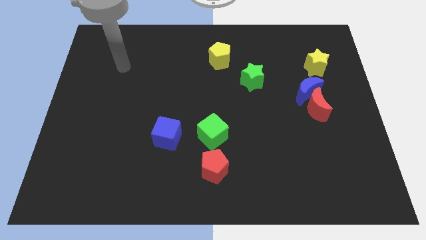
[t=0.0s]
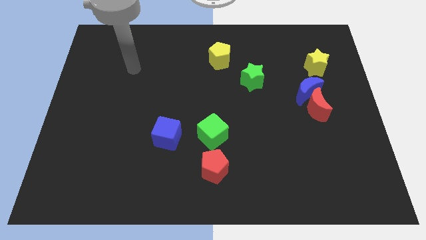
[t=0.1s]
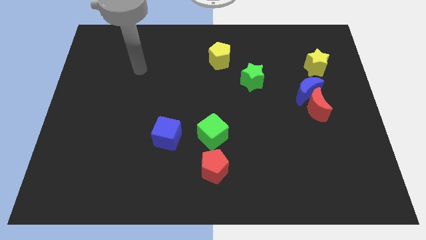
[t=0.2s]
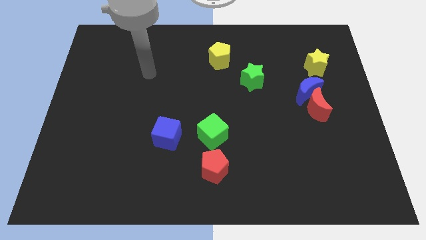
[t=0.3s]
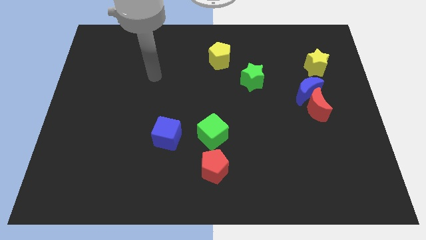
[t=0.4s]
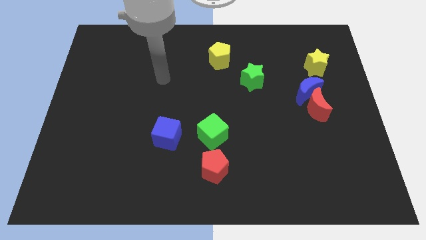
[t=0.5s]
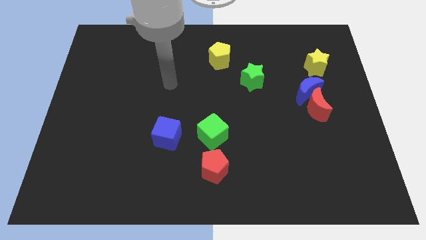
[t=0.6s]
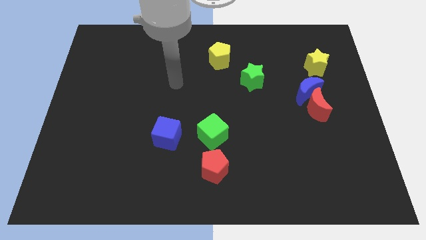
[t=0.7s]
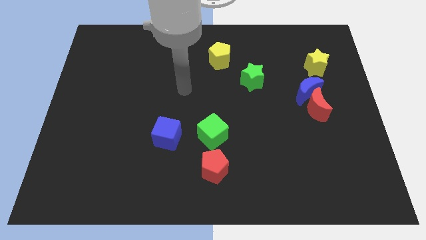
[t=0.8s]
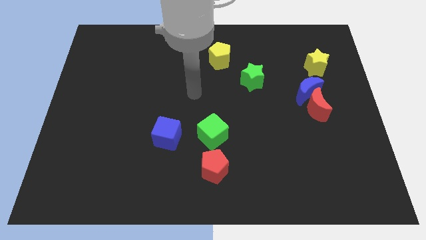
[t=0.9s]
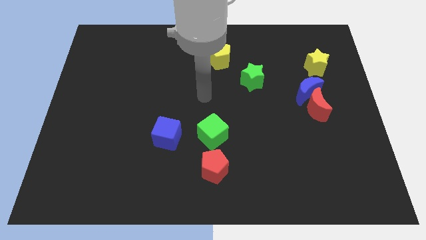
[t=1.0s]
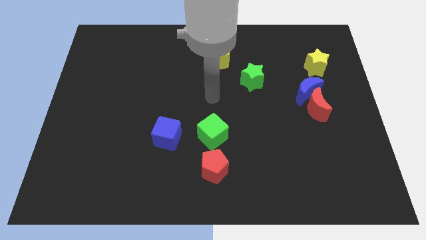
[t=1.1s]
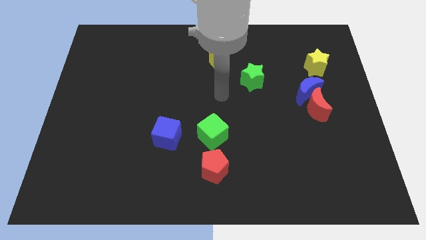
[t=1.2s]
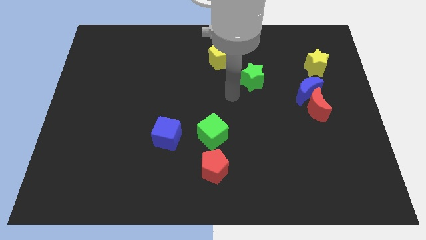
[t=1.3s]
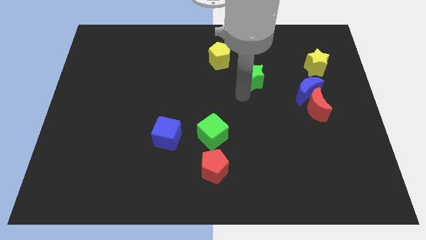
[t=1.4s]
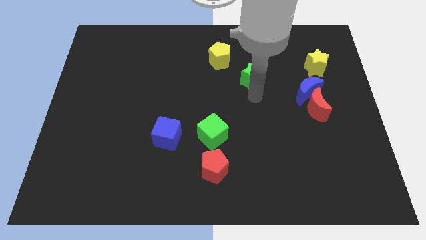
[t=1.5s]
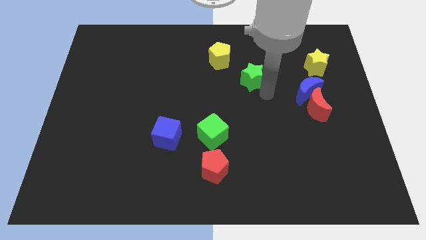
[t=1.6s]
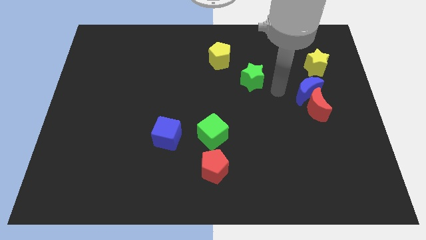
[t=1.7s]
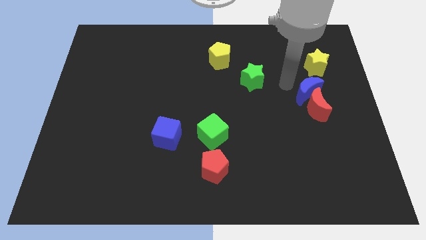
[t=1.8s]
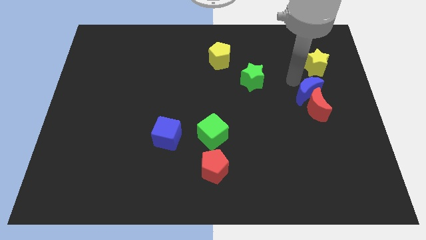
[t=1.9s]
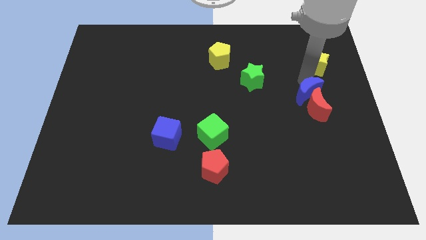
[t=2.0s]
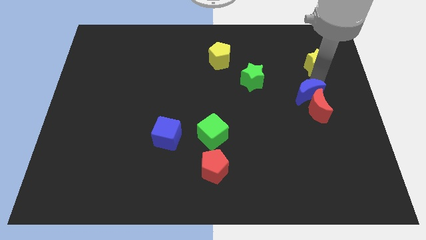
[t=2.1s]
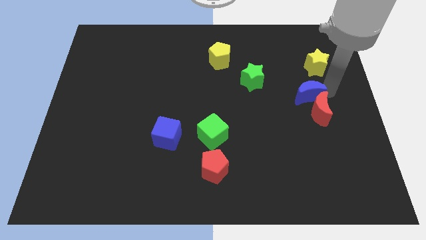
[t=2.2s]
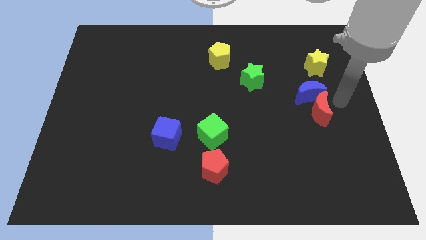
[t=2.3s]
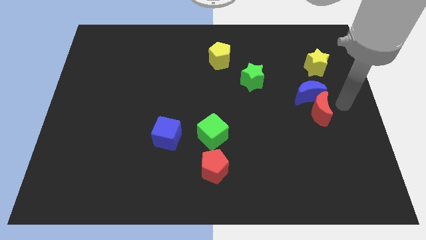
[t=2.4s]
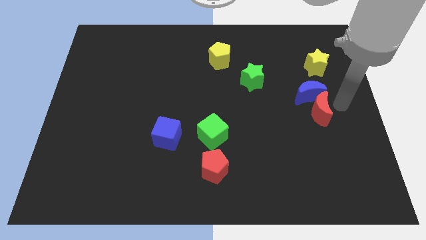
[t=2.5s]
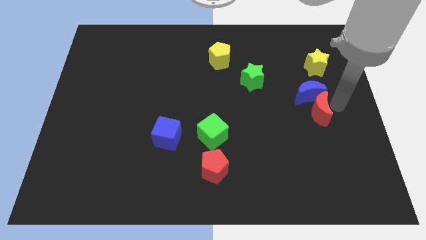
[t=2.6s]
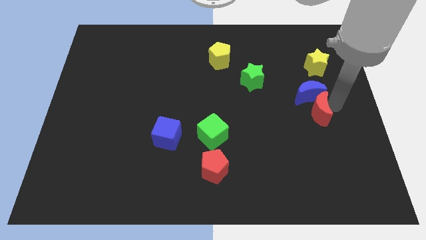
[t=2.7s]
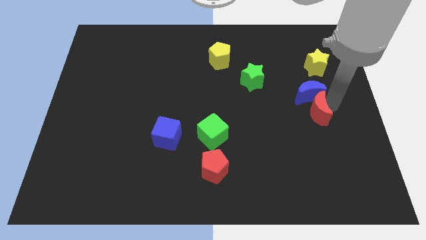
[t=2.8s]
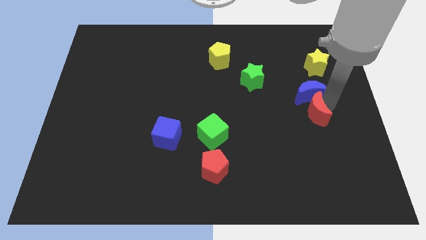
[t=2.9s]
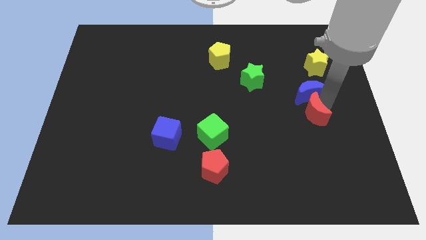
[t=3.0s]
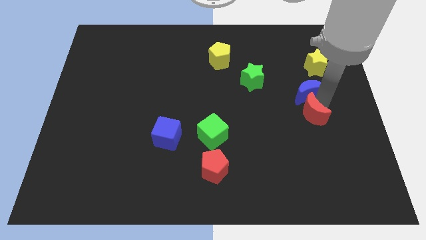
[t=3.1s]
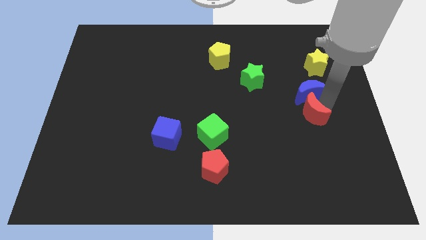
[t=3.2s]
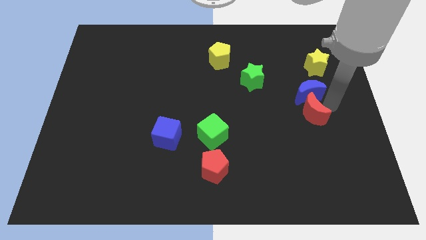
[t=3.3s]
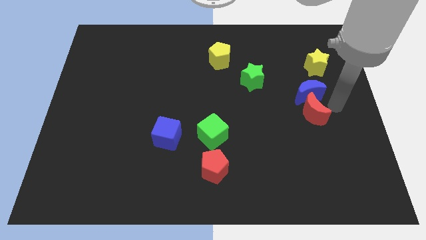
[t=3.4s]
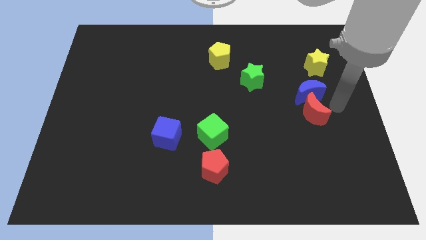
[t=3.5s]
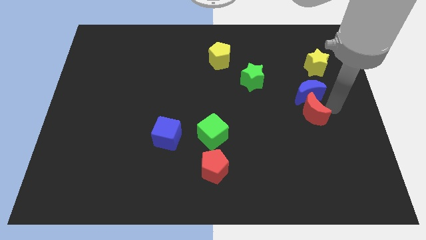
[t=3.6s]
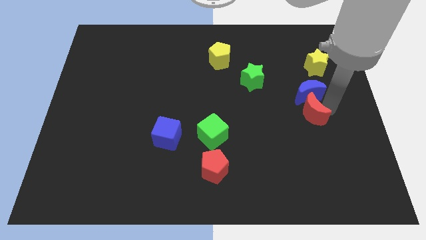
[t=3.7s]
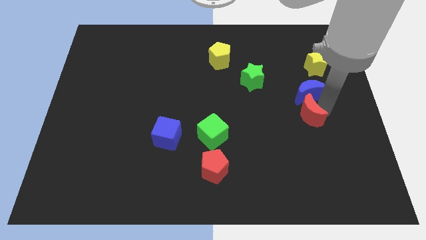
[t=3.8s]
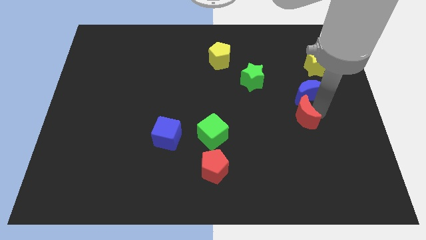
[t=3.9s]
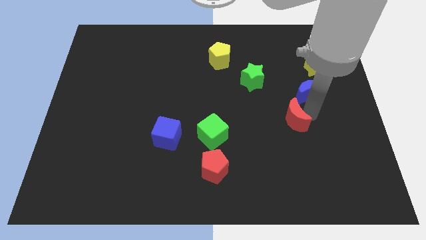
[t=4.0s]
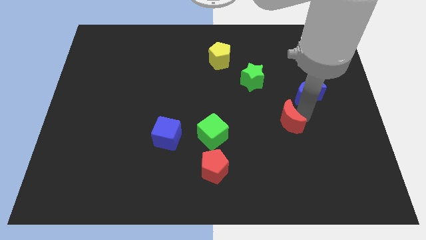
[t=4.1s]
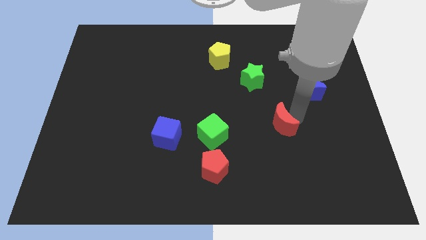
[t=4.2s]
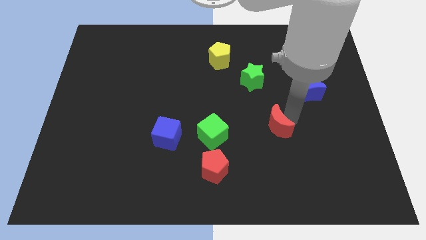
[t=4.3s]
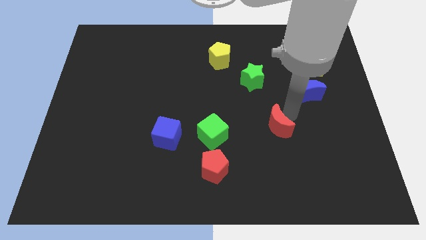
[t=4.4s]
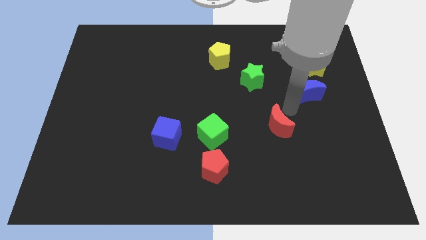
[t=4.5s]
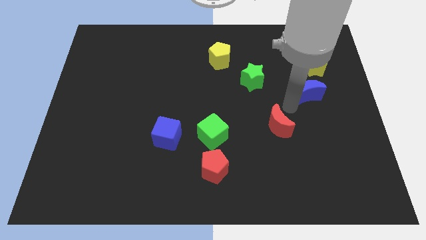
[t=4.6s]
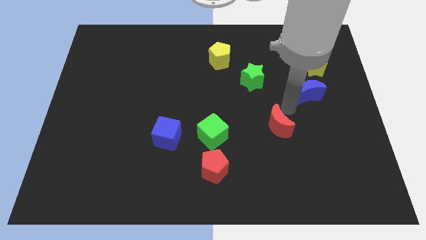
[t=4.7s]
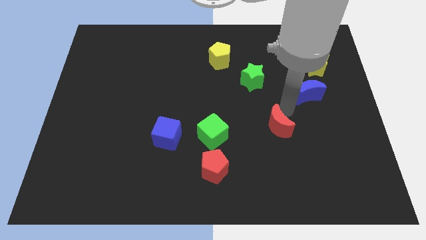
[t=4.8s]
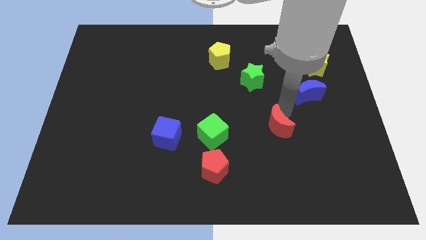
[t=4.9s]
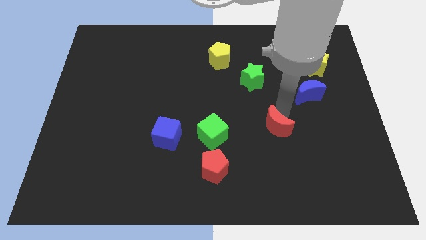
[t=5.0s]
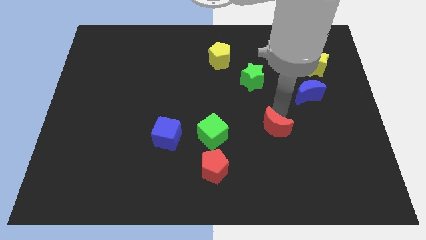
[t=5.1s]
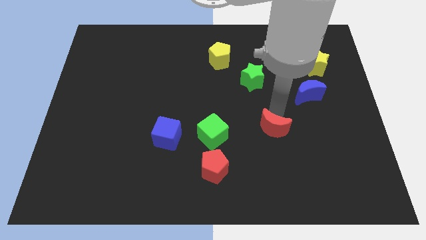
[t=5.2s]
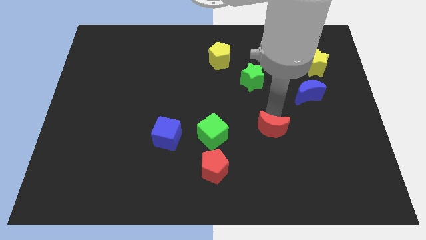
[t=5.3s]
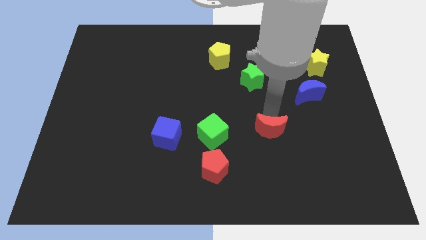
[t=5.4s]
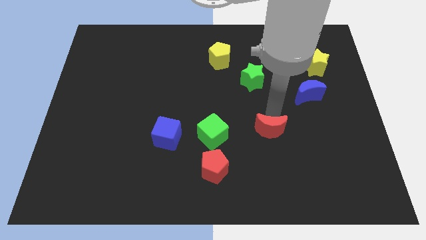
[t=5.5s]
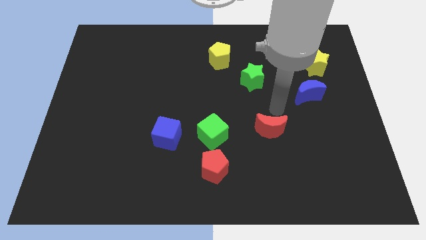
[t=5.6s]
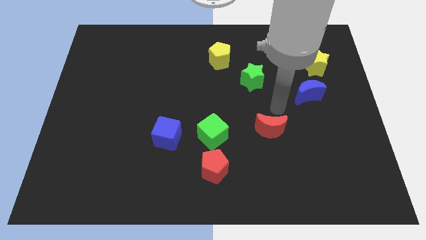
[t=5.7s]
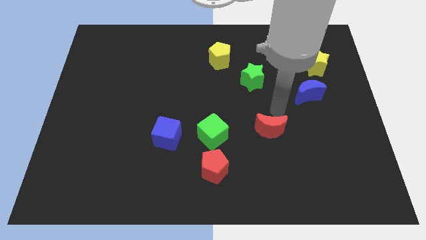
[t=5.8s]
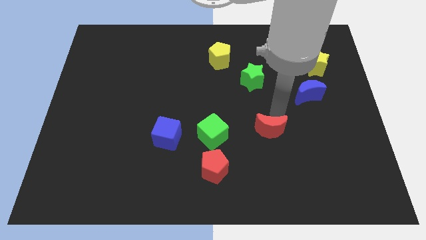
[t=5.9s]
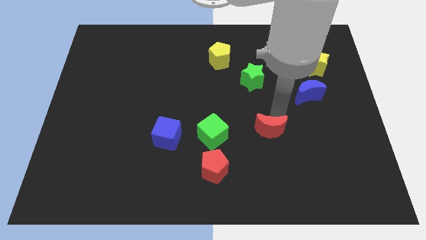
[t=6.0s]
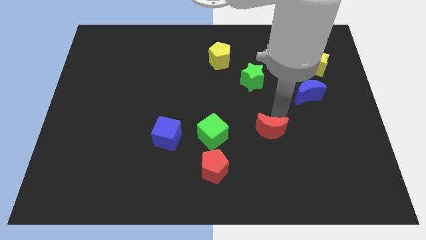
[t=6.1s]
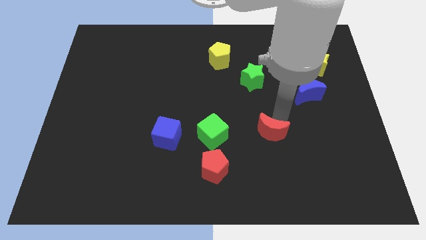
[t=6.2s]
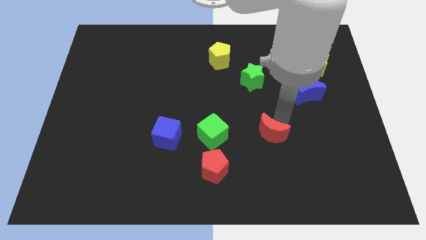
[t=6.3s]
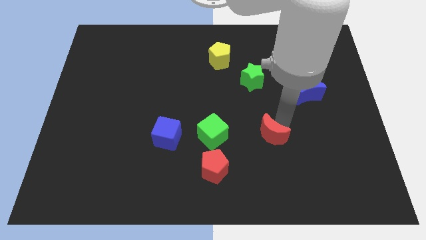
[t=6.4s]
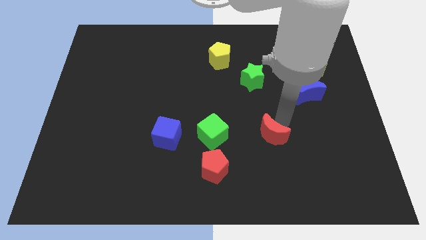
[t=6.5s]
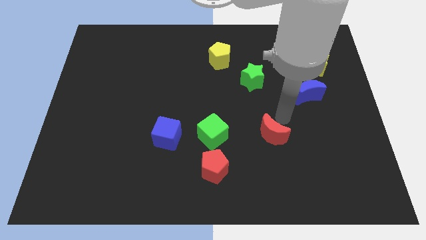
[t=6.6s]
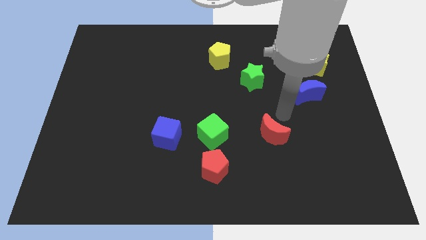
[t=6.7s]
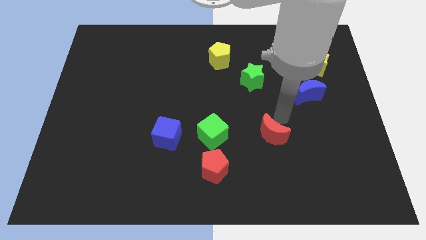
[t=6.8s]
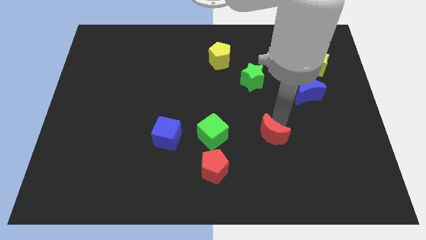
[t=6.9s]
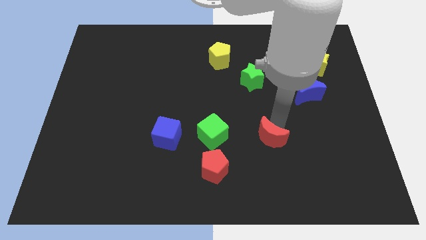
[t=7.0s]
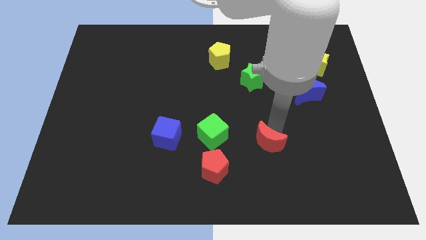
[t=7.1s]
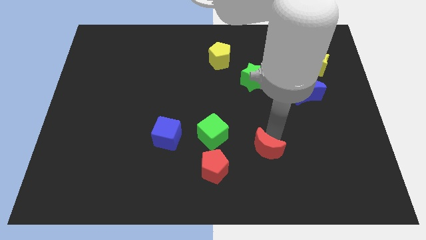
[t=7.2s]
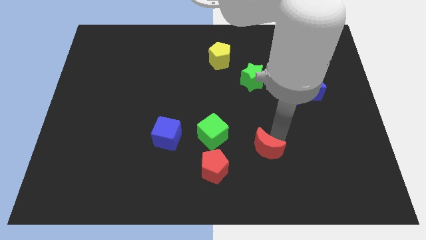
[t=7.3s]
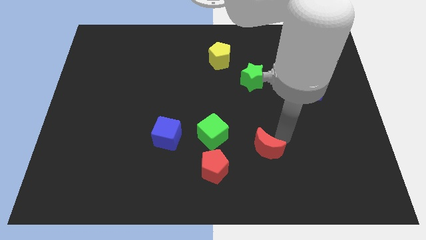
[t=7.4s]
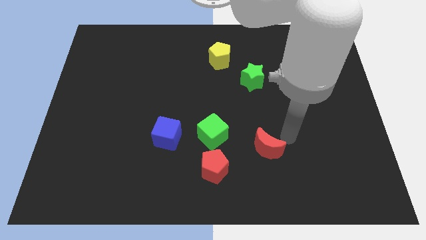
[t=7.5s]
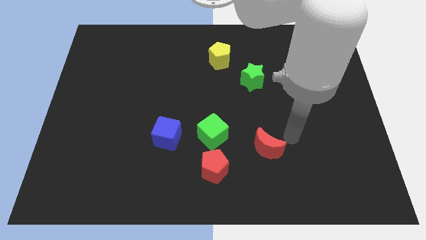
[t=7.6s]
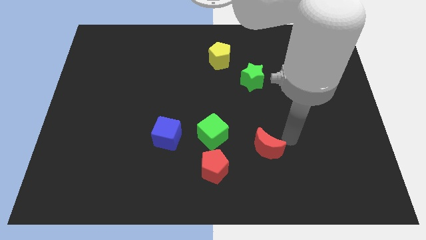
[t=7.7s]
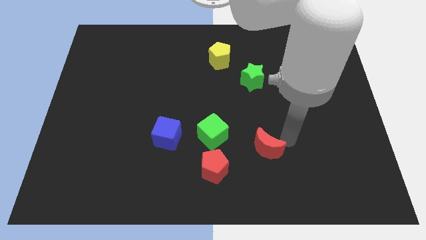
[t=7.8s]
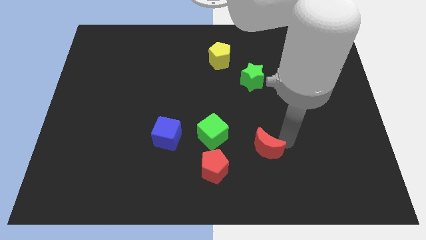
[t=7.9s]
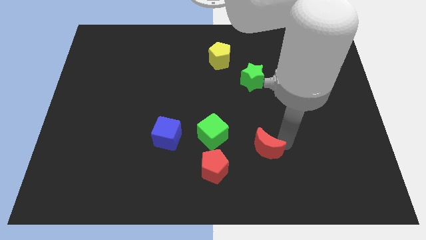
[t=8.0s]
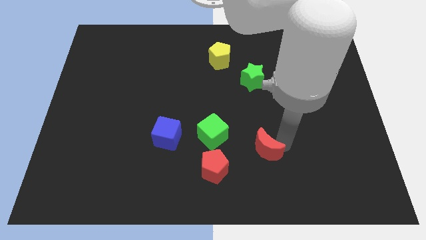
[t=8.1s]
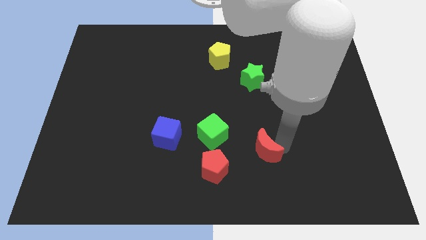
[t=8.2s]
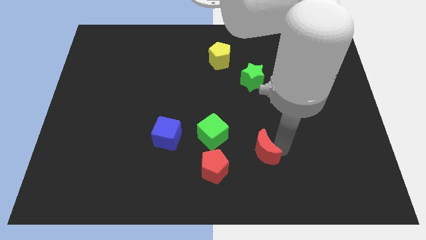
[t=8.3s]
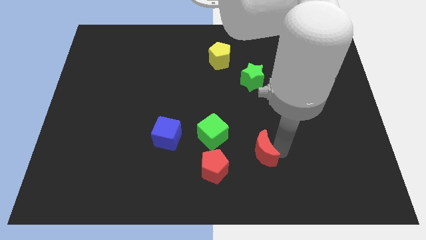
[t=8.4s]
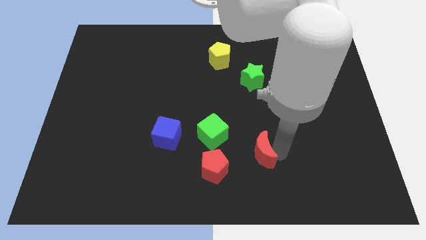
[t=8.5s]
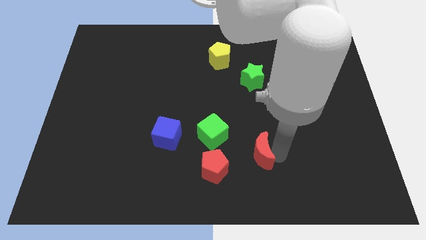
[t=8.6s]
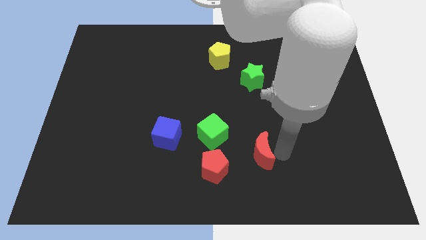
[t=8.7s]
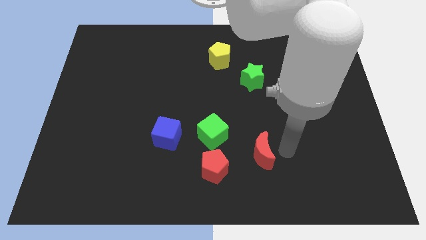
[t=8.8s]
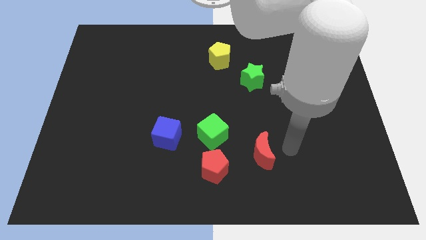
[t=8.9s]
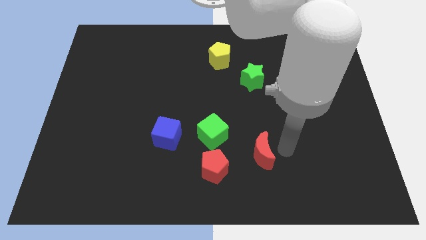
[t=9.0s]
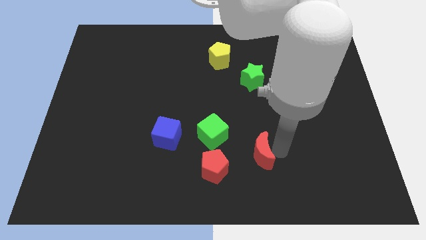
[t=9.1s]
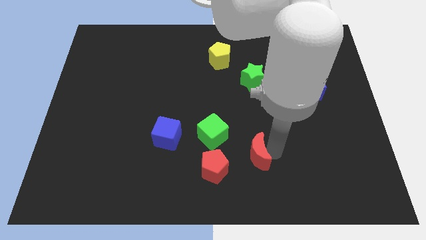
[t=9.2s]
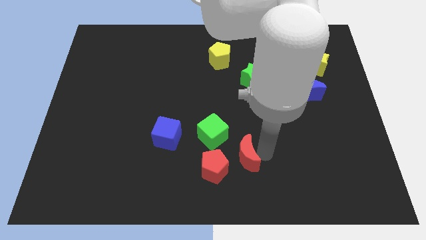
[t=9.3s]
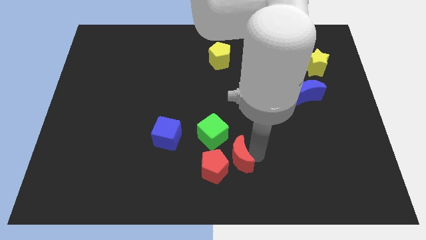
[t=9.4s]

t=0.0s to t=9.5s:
slide the red moon close to the red pentagon
